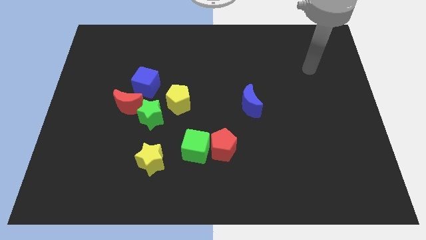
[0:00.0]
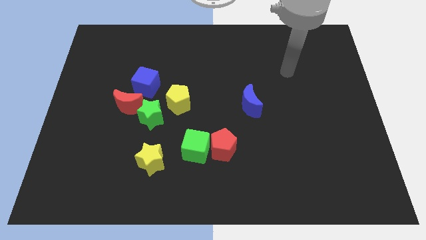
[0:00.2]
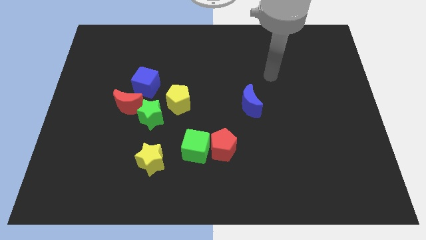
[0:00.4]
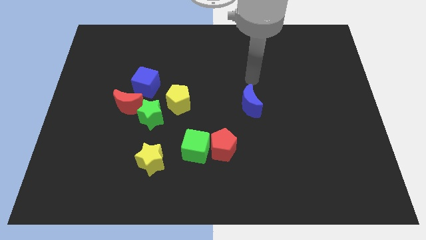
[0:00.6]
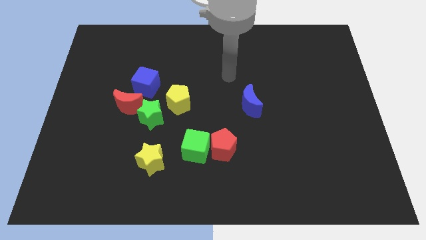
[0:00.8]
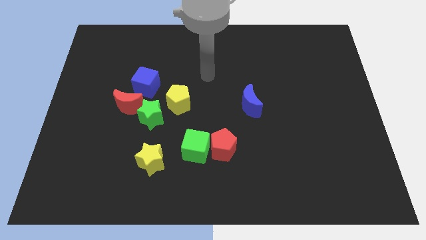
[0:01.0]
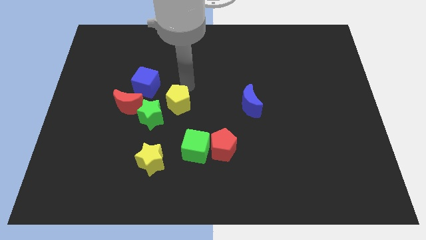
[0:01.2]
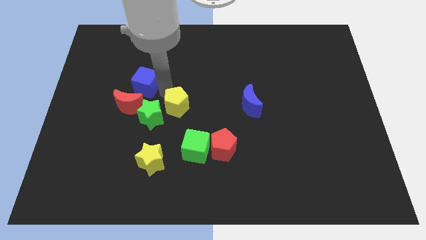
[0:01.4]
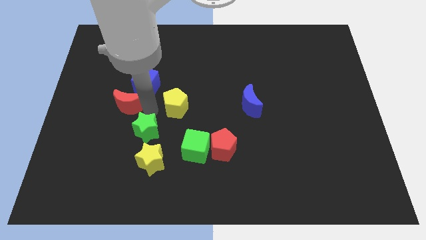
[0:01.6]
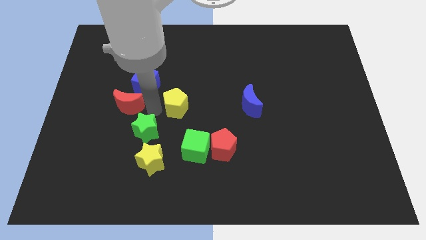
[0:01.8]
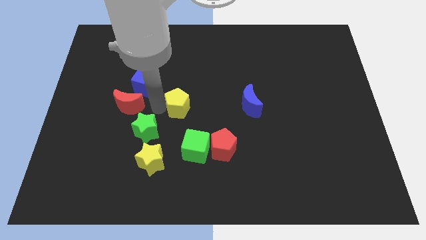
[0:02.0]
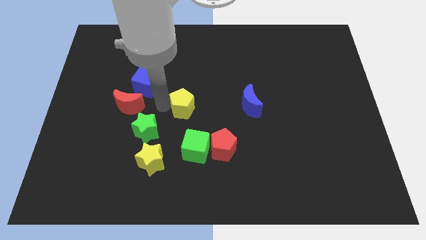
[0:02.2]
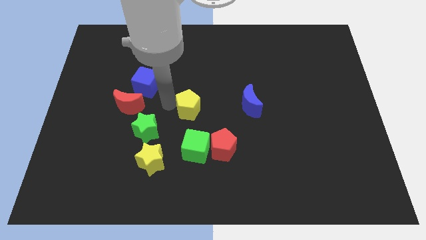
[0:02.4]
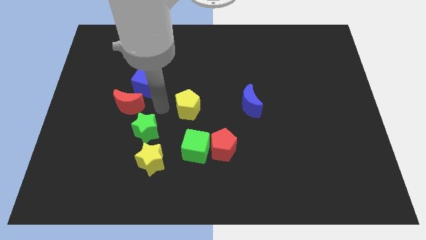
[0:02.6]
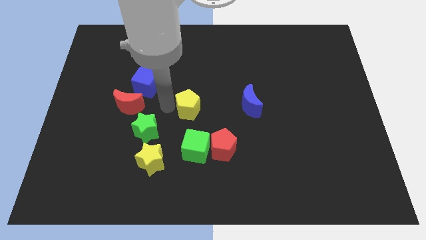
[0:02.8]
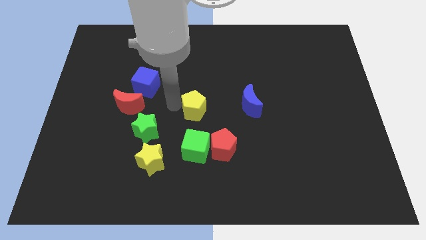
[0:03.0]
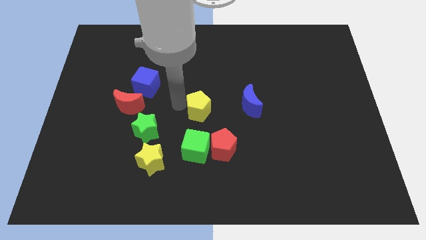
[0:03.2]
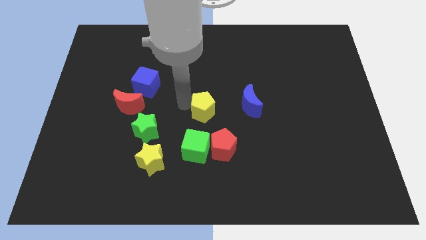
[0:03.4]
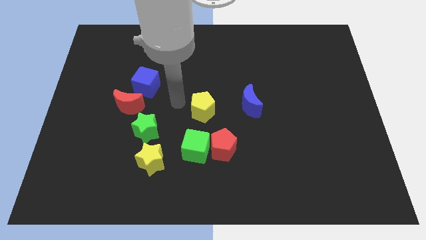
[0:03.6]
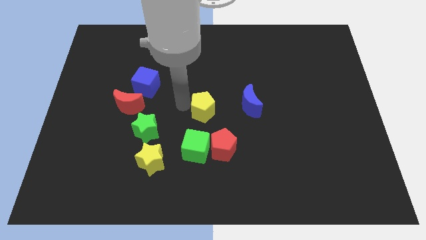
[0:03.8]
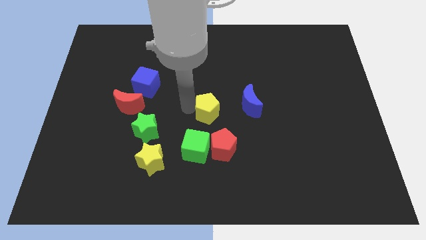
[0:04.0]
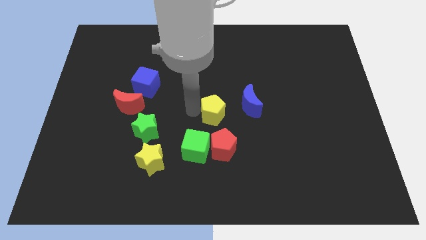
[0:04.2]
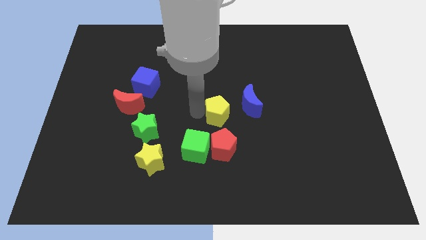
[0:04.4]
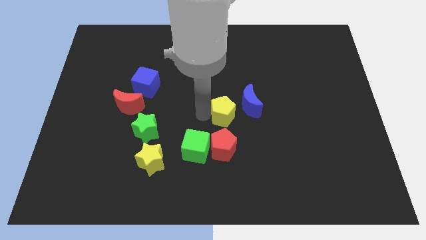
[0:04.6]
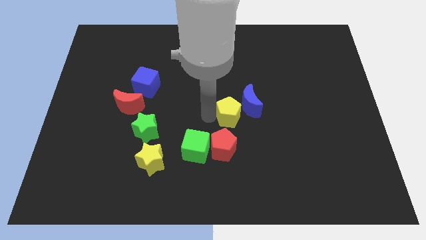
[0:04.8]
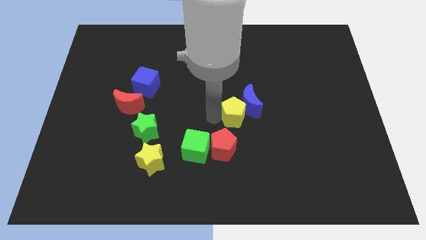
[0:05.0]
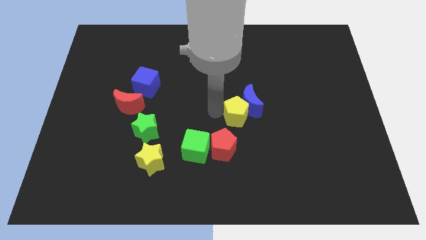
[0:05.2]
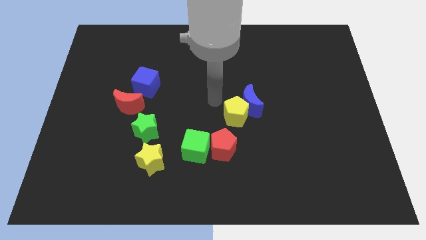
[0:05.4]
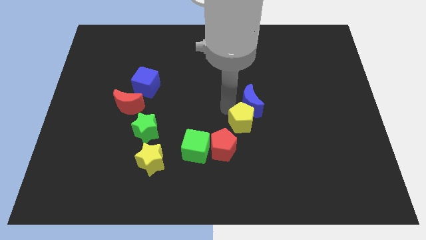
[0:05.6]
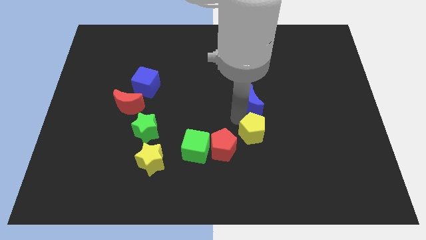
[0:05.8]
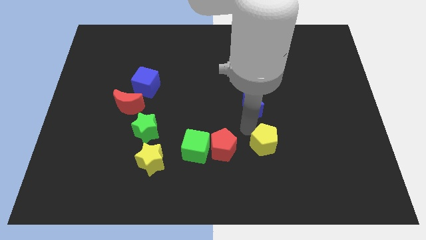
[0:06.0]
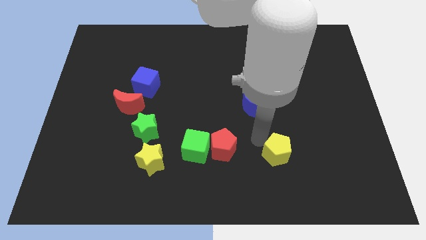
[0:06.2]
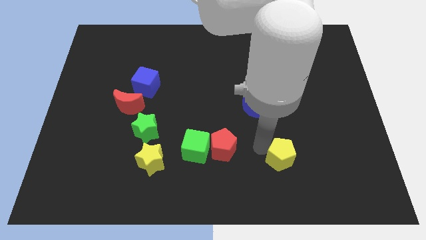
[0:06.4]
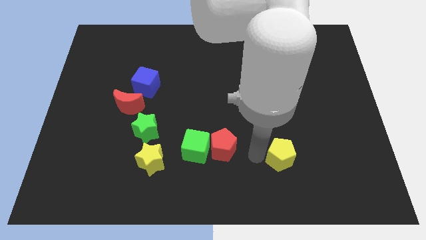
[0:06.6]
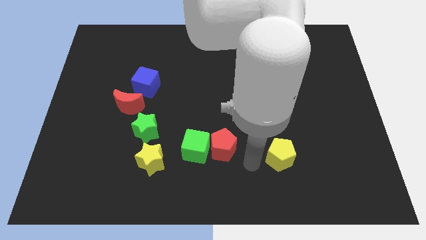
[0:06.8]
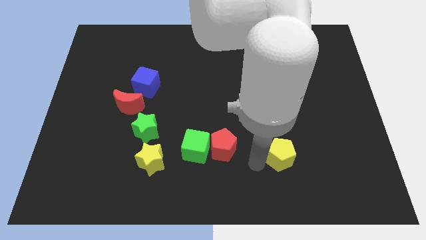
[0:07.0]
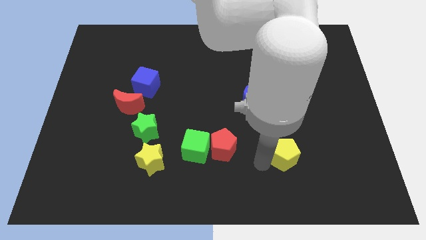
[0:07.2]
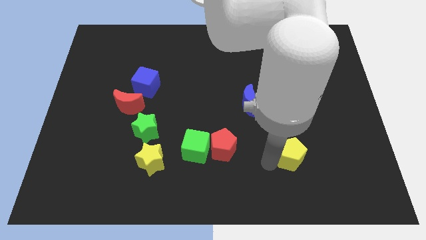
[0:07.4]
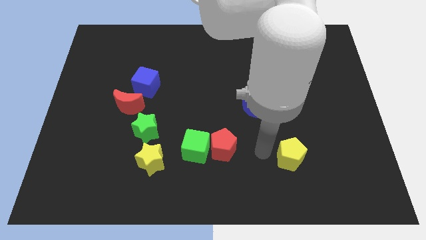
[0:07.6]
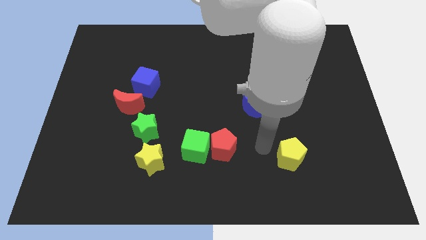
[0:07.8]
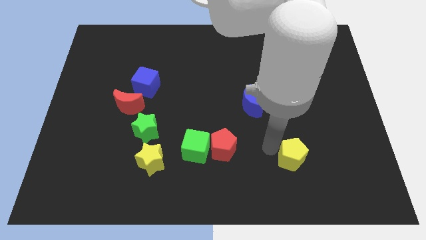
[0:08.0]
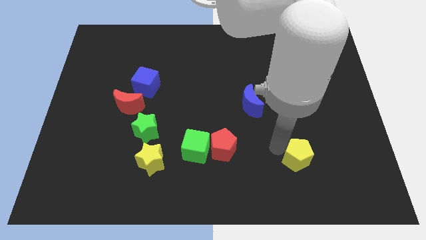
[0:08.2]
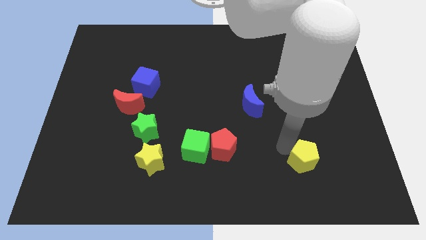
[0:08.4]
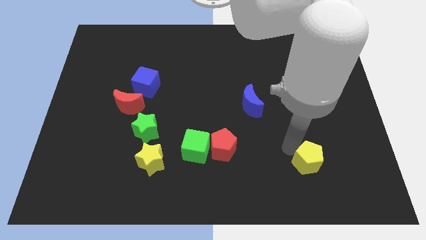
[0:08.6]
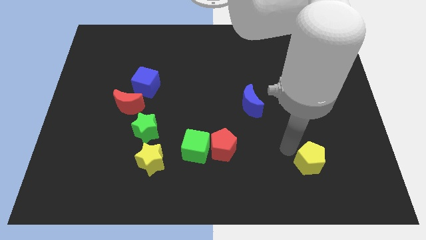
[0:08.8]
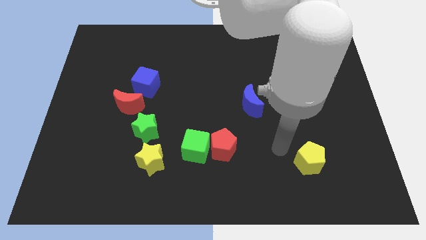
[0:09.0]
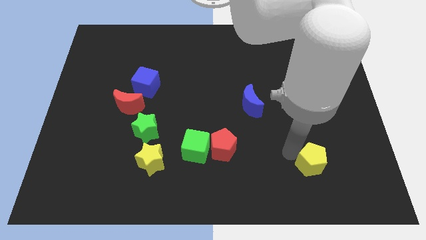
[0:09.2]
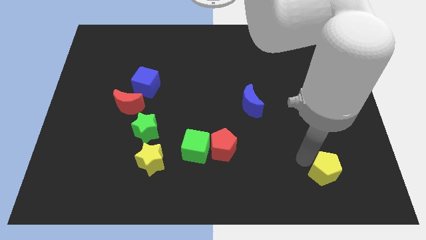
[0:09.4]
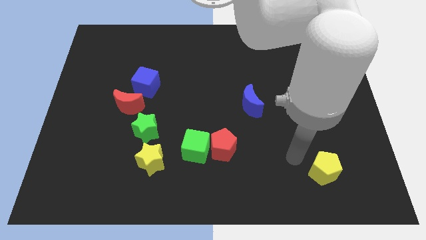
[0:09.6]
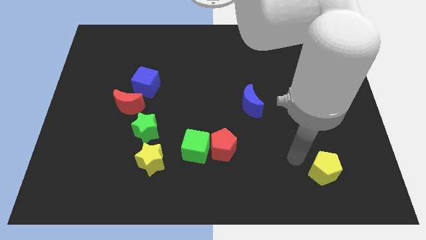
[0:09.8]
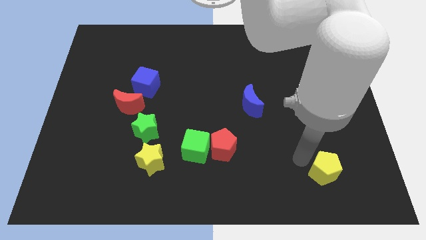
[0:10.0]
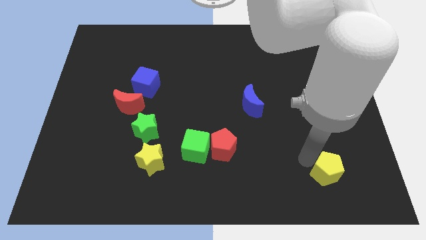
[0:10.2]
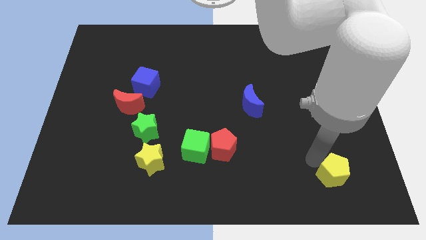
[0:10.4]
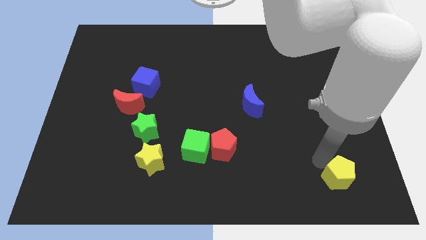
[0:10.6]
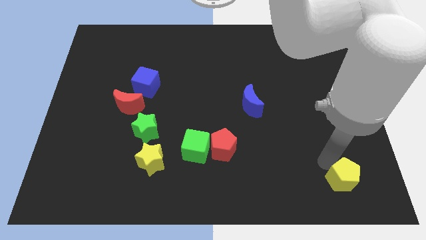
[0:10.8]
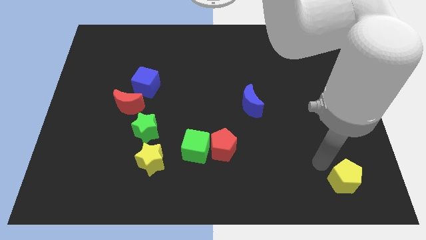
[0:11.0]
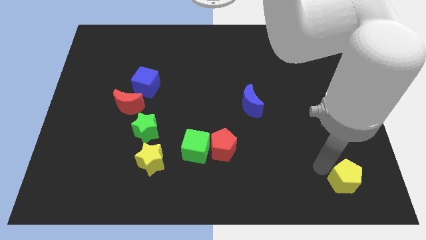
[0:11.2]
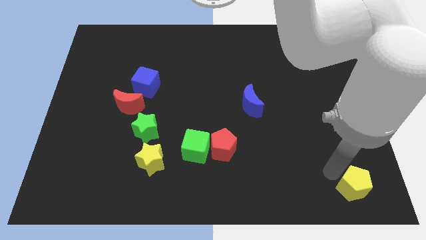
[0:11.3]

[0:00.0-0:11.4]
move the yellow pentagon to the bottom right of the board
